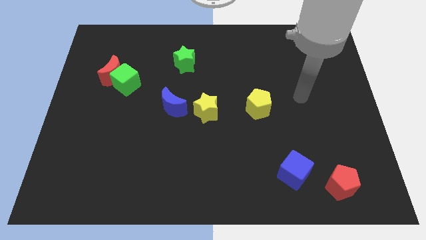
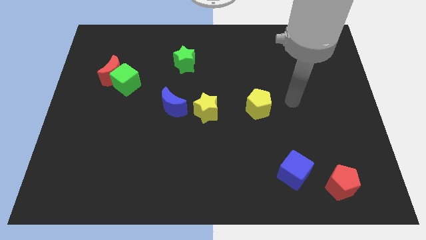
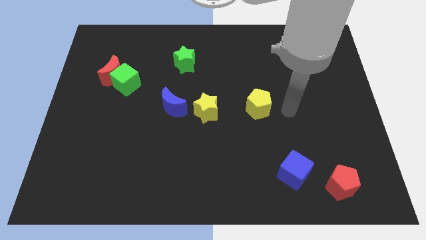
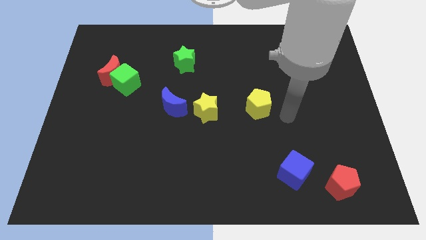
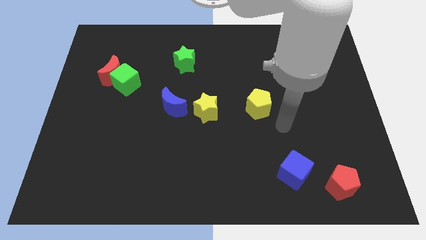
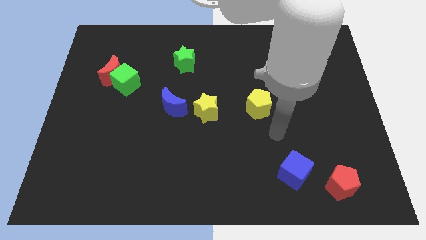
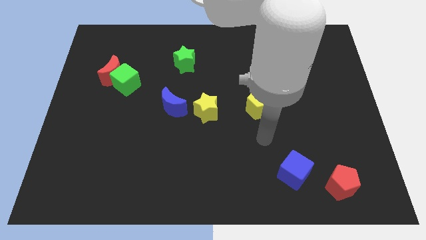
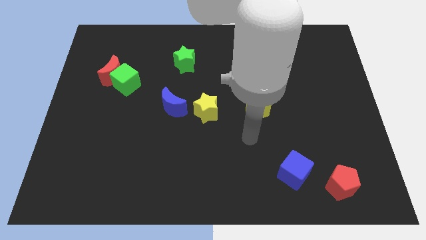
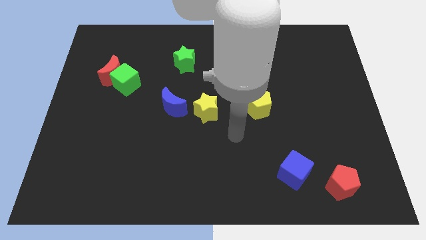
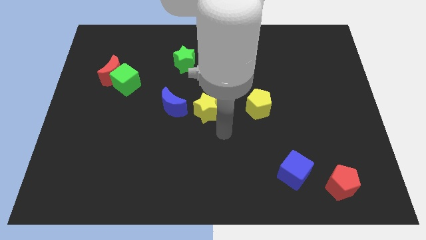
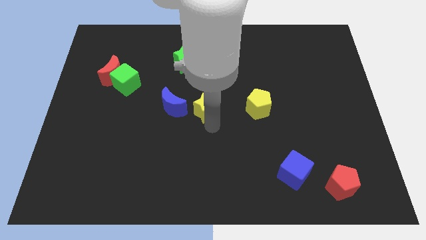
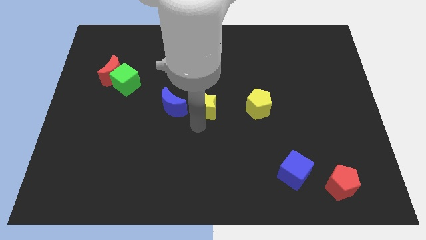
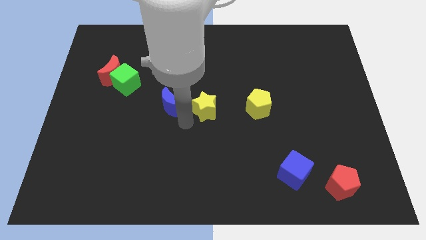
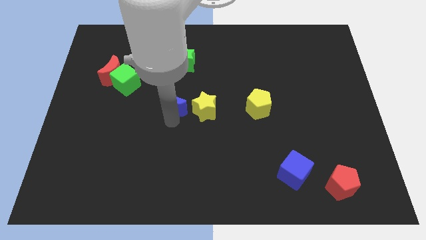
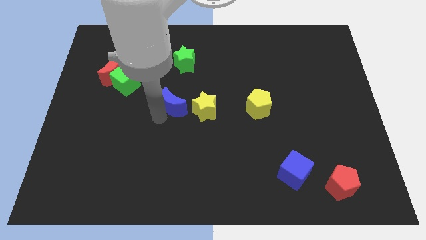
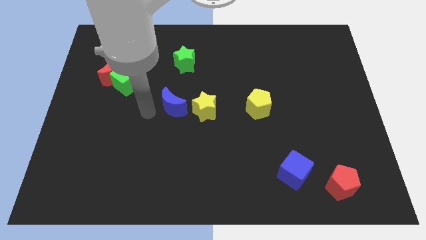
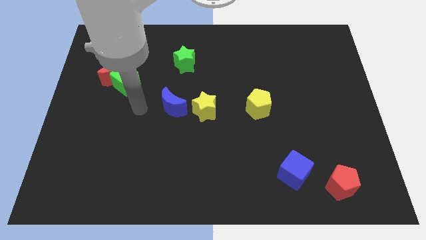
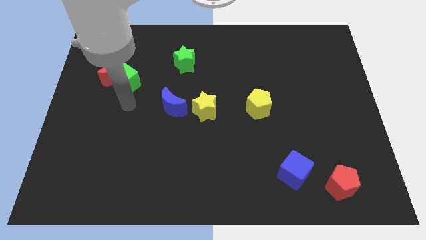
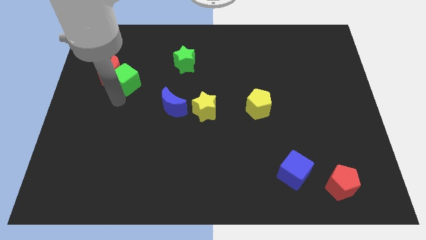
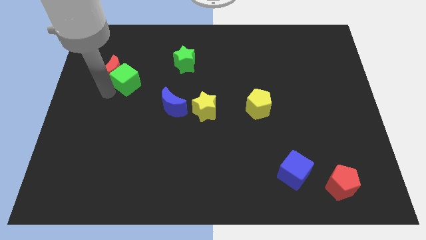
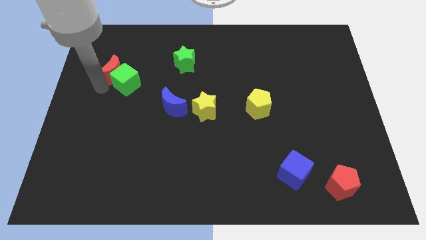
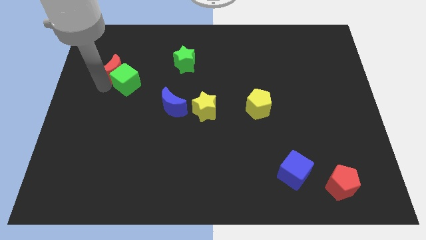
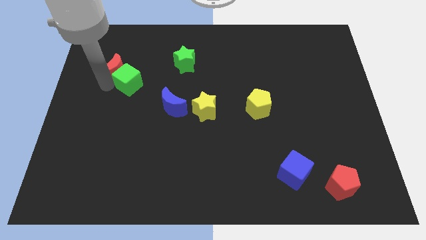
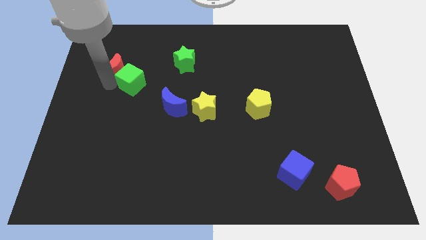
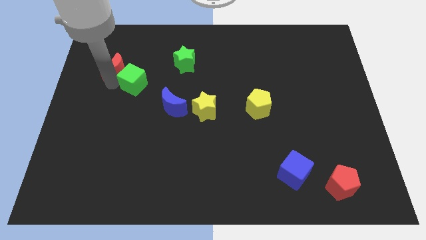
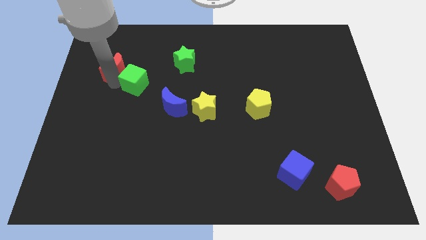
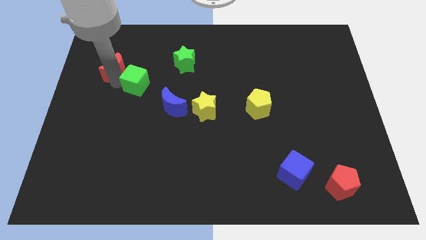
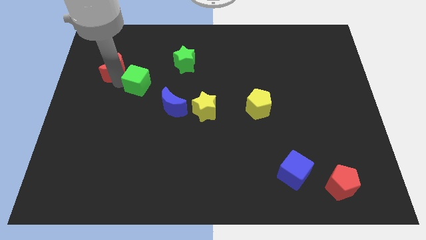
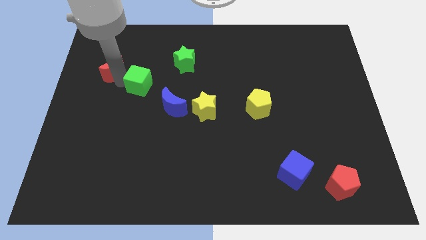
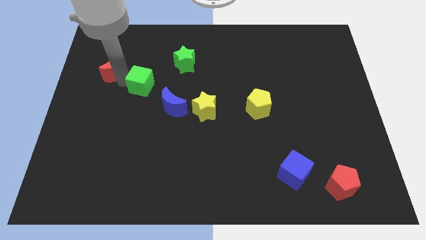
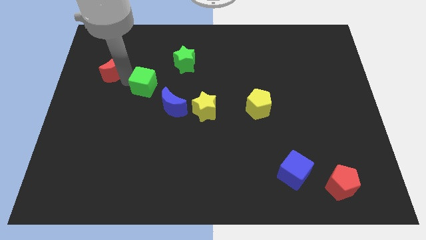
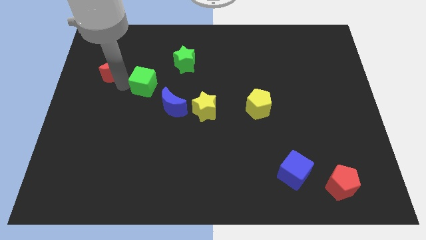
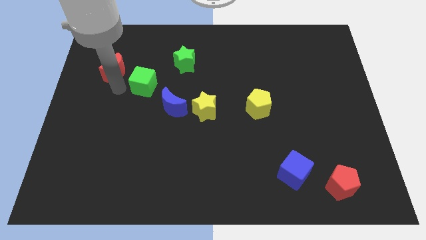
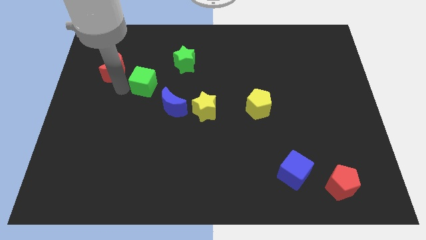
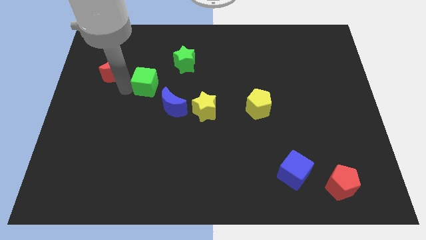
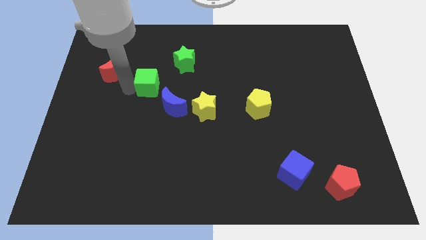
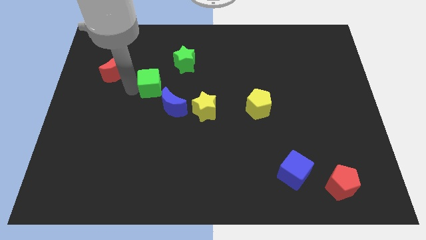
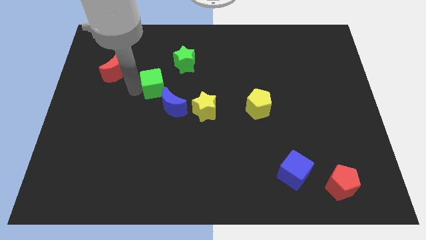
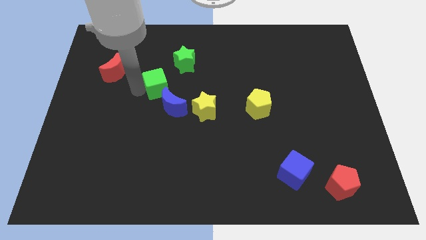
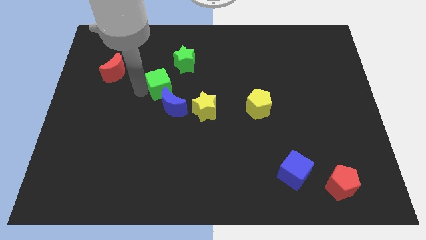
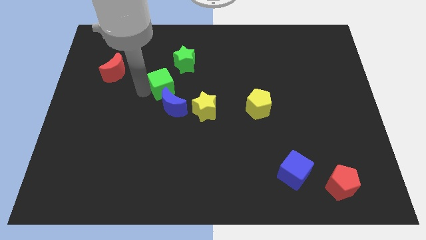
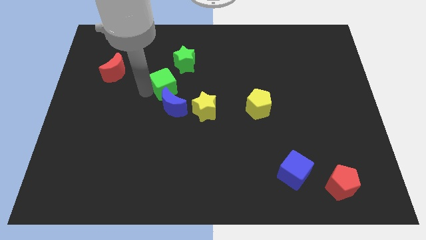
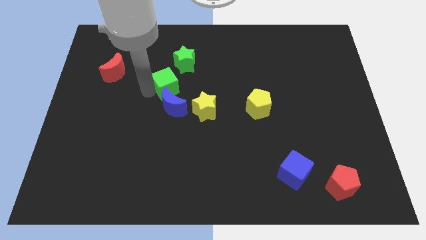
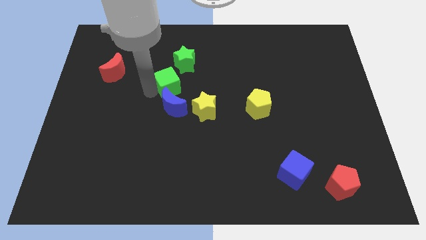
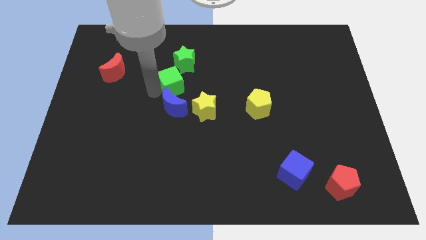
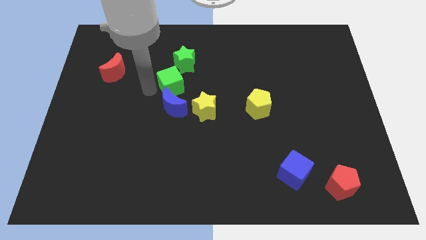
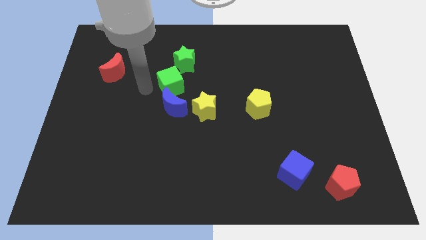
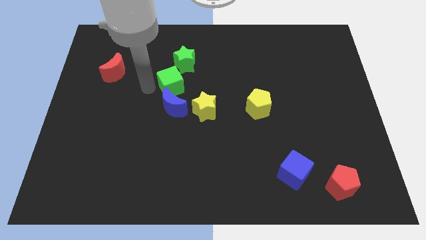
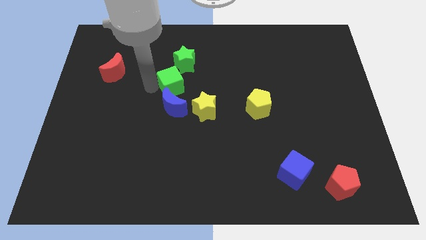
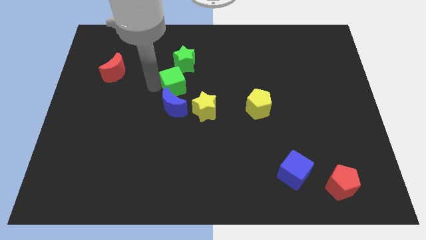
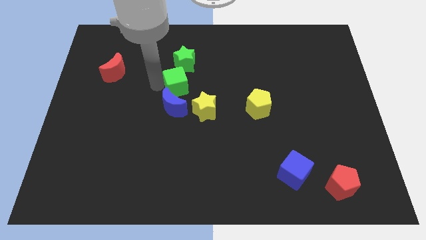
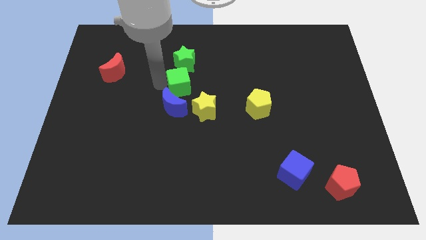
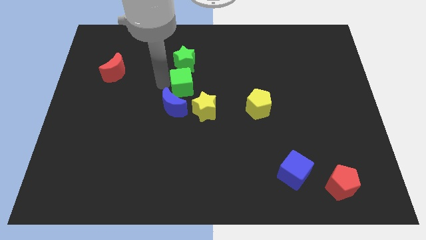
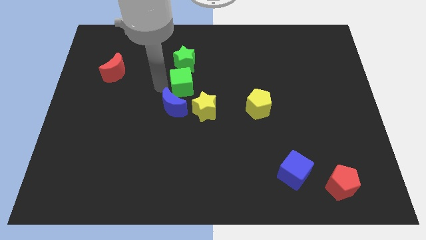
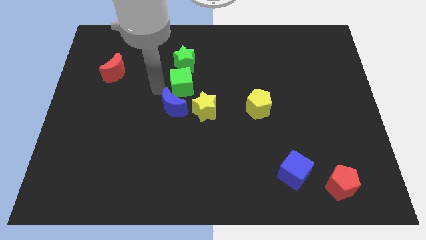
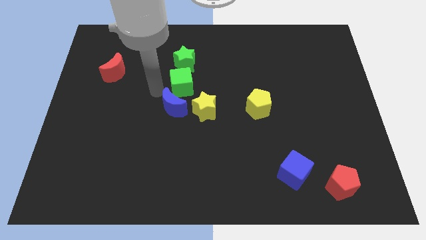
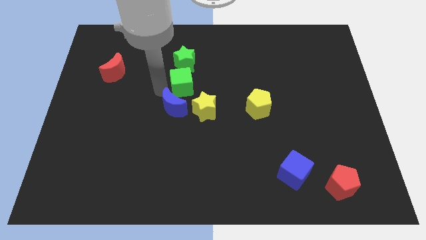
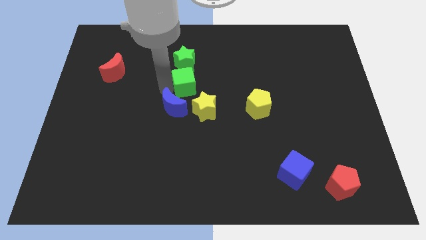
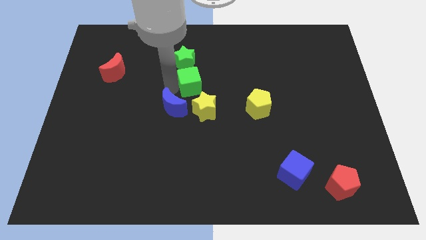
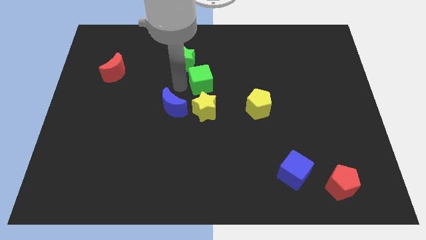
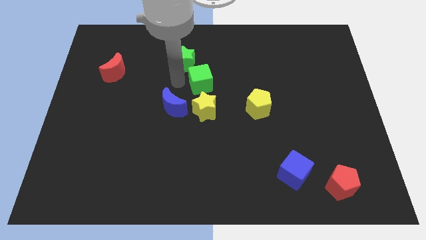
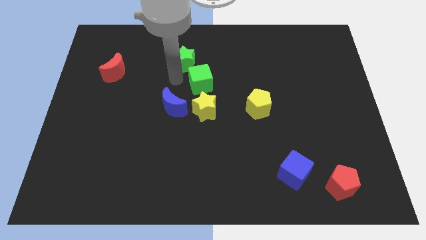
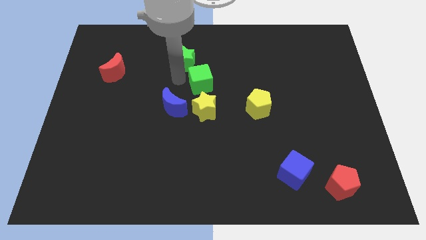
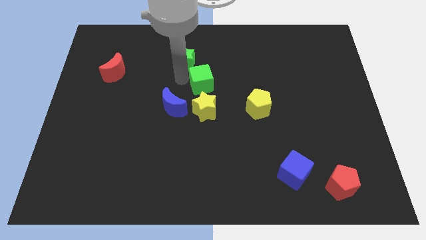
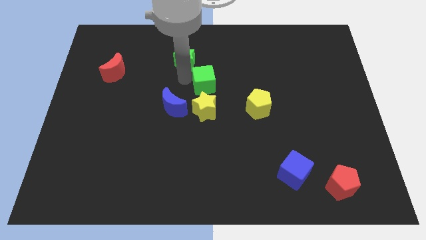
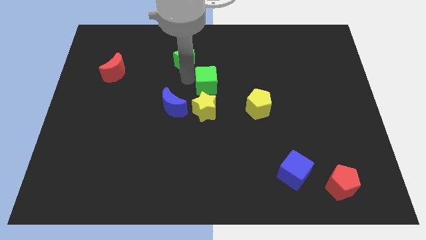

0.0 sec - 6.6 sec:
push the green cube right

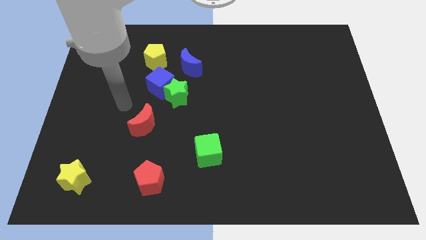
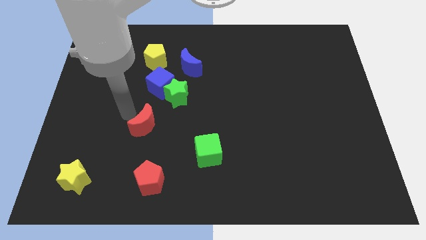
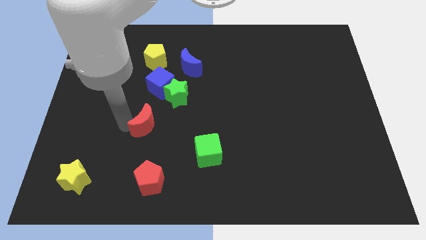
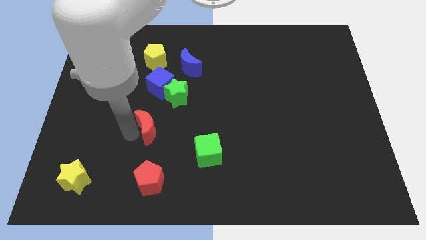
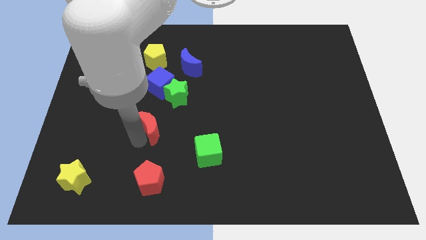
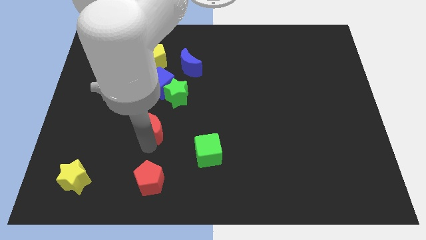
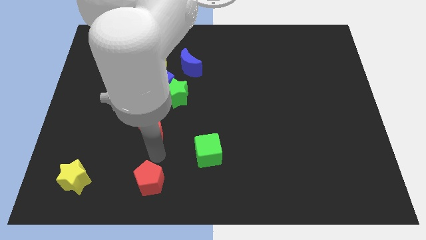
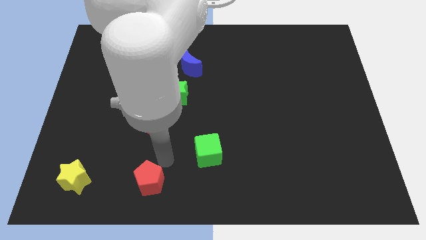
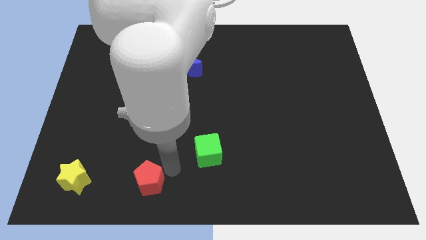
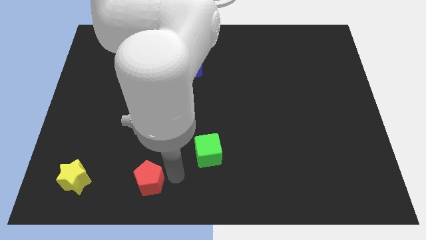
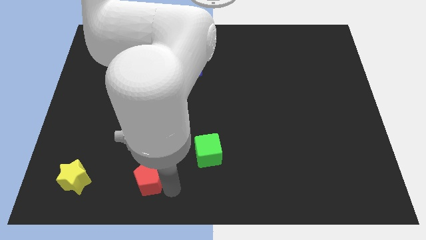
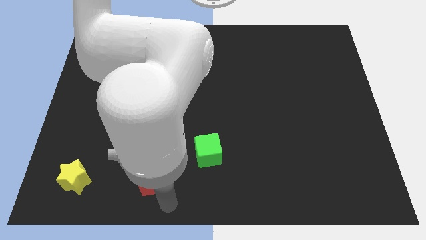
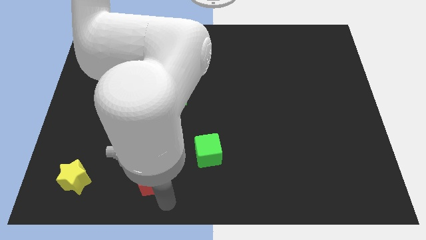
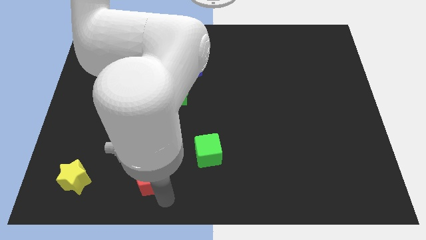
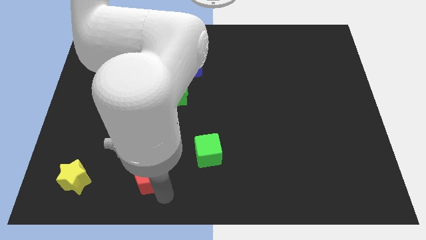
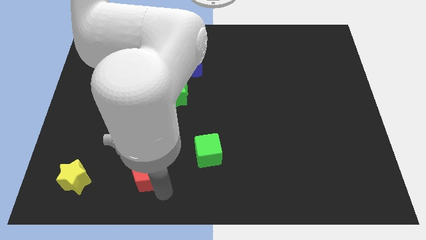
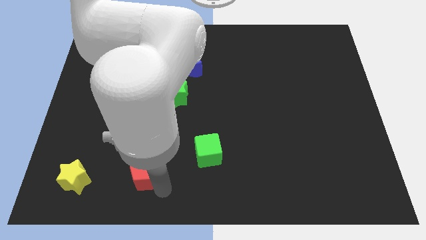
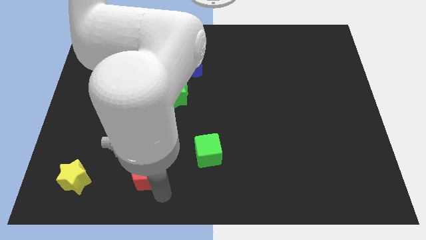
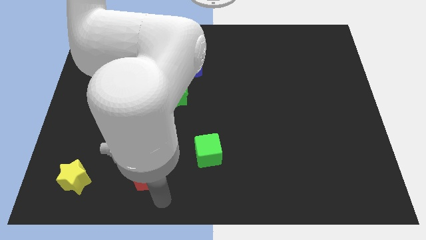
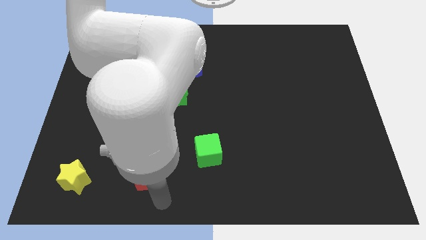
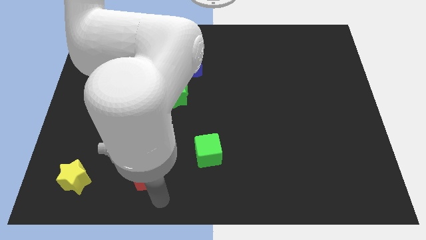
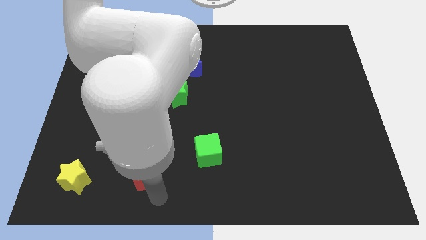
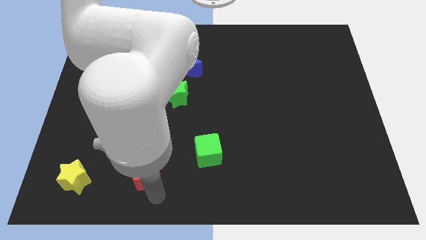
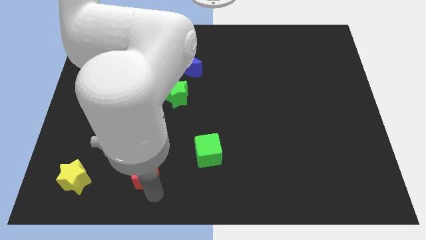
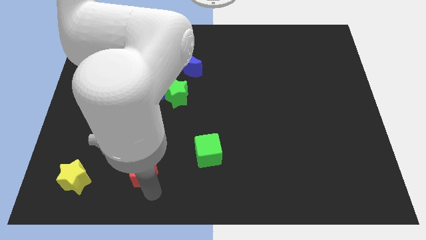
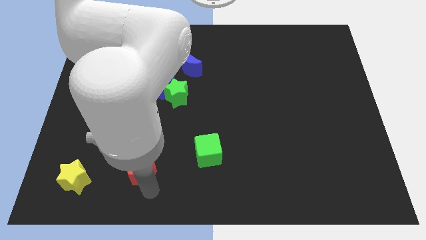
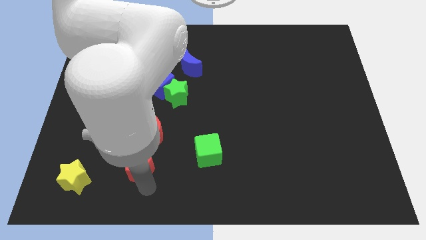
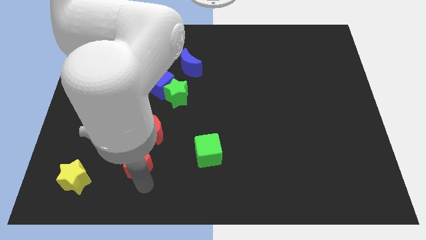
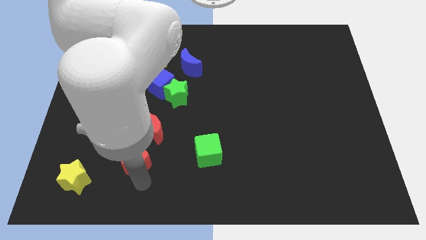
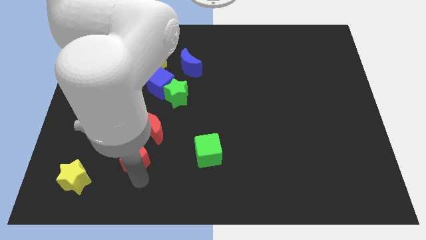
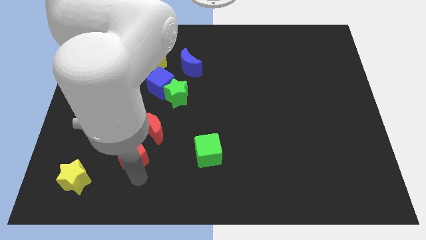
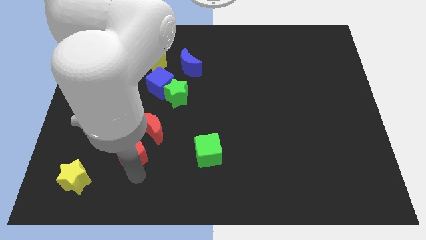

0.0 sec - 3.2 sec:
move the red pentagon slightly up and left diagonally
